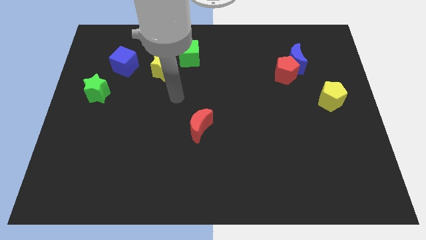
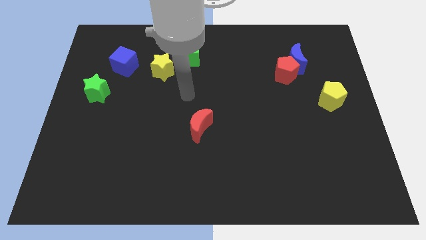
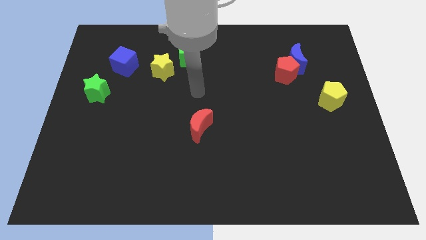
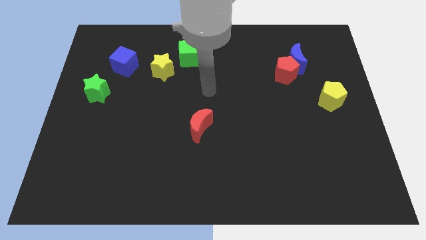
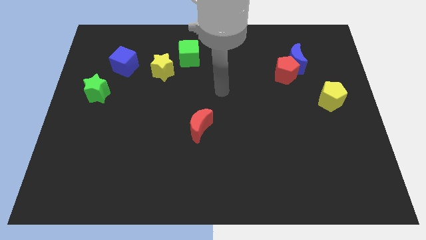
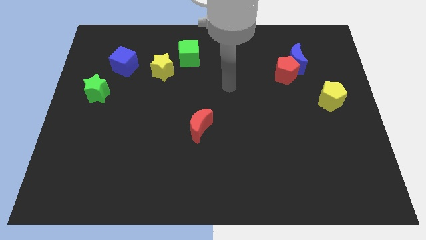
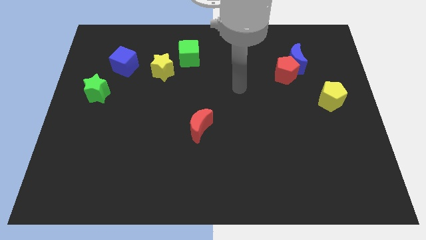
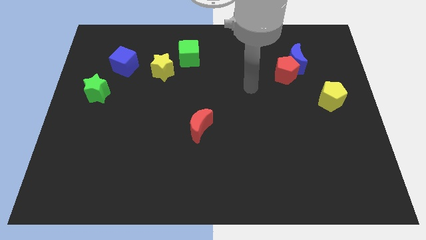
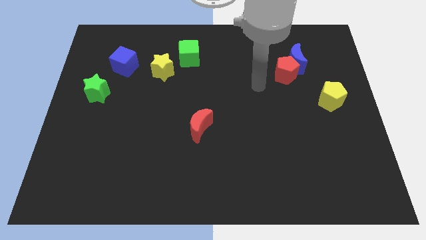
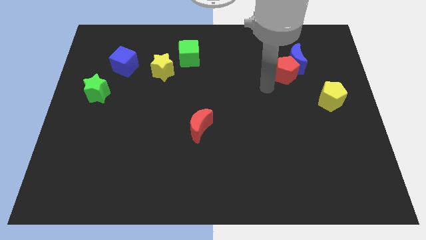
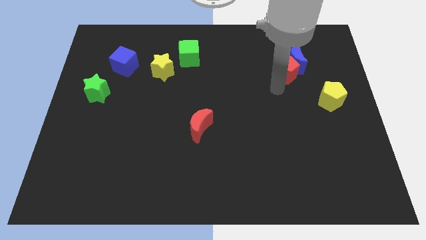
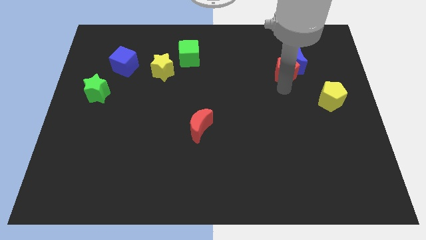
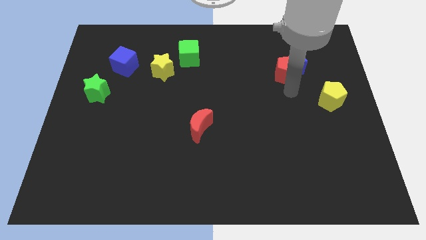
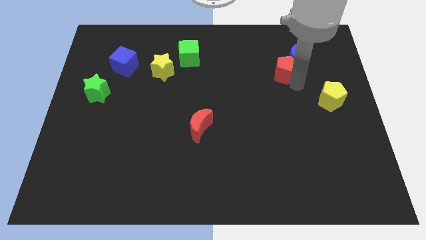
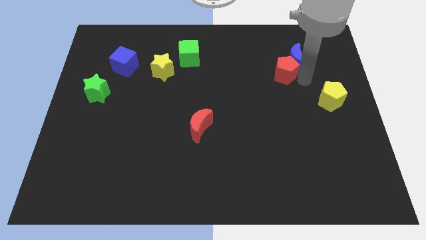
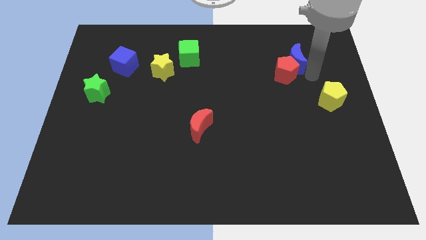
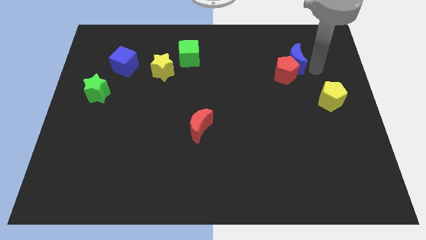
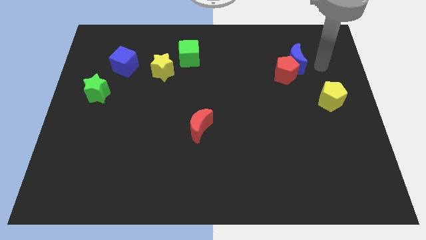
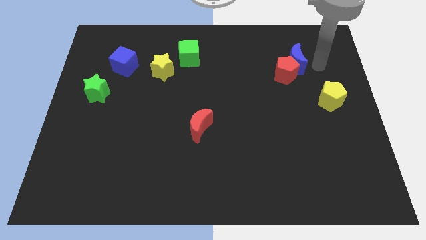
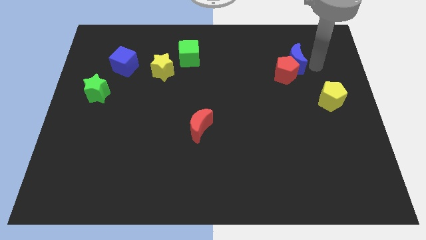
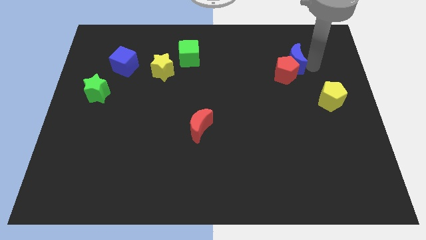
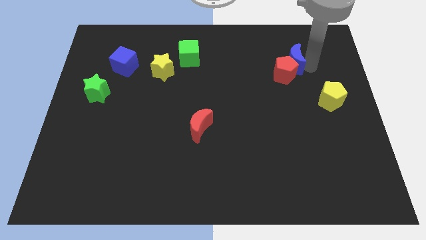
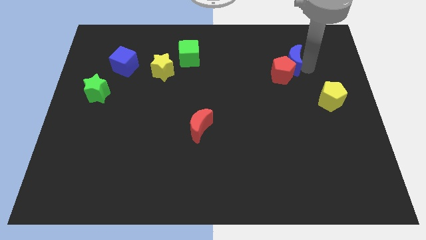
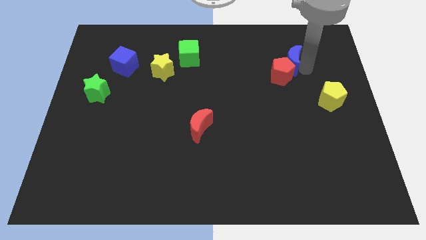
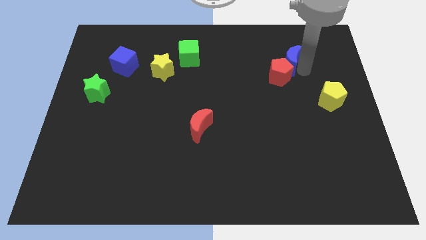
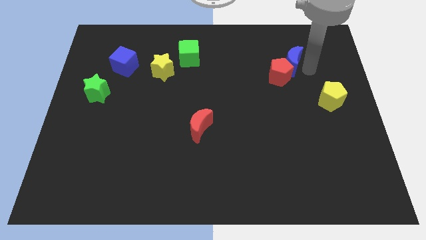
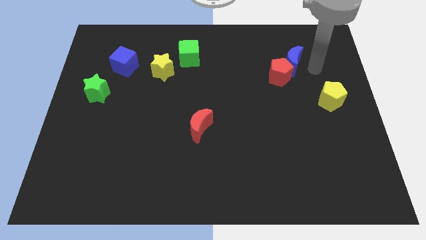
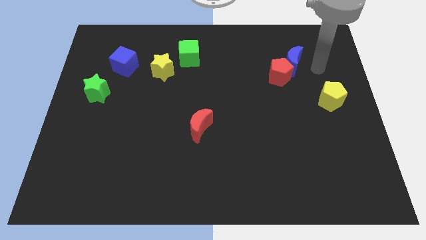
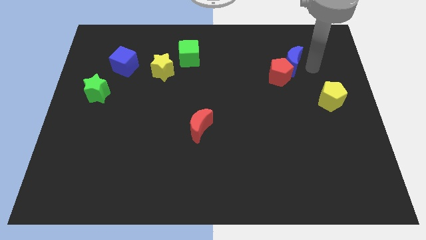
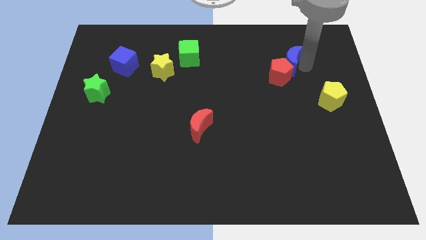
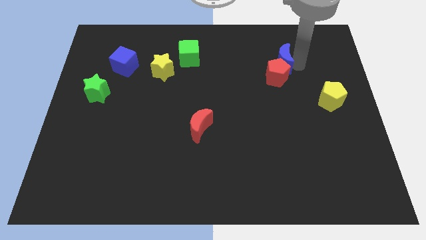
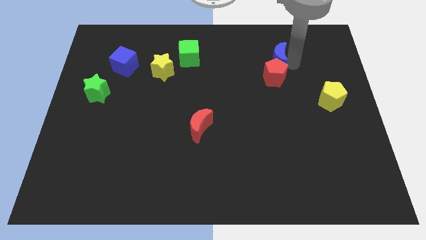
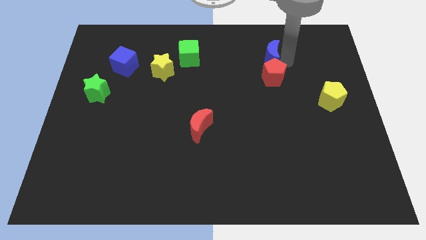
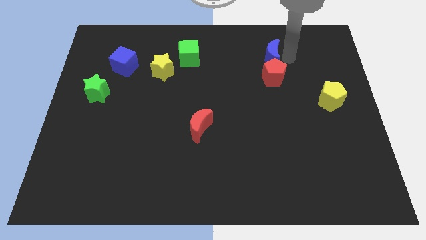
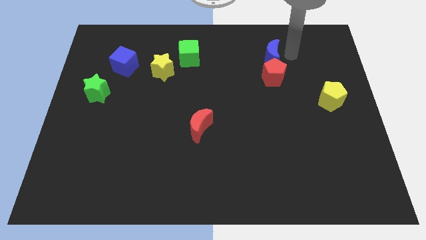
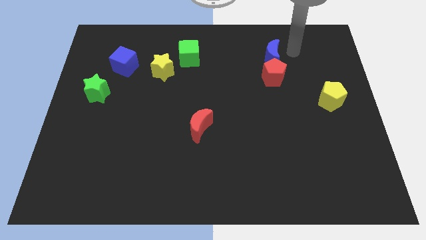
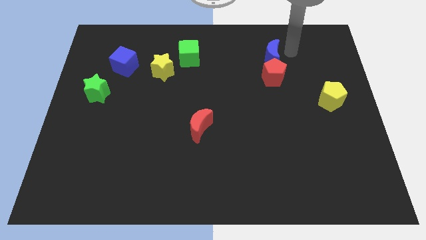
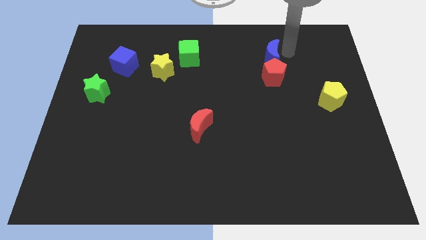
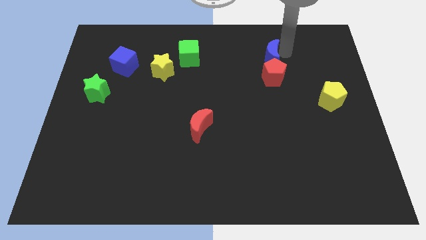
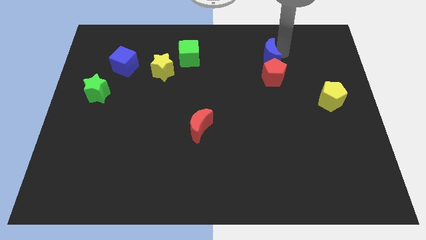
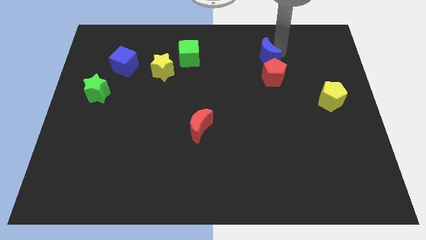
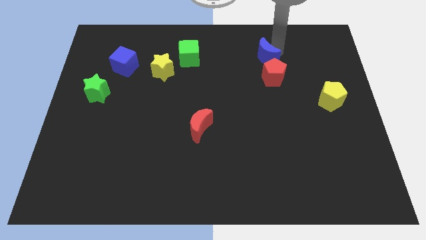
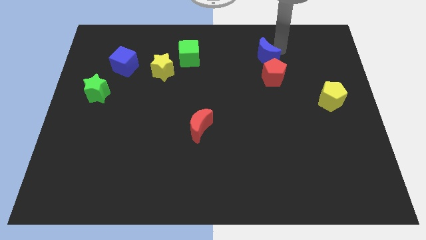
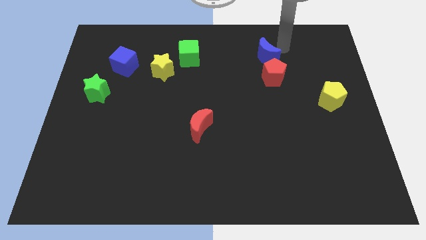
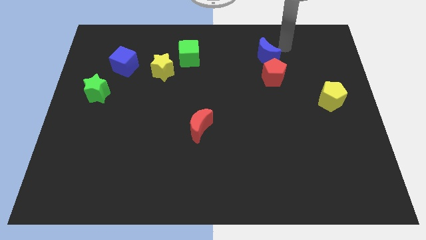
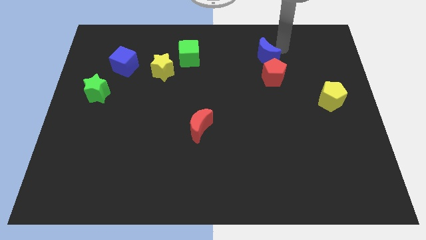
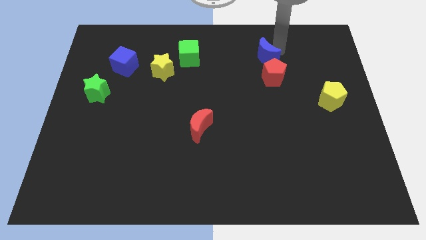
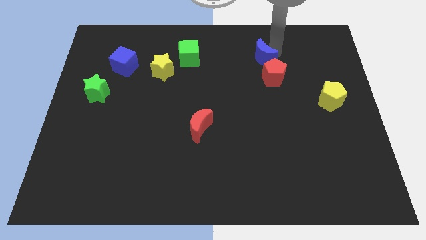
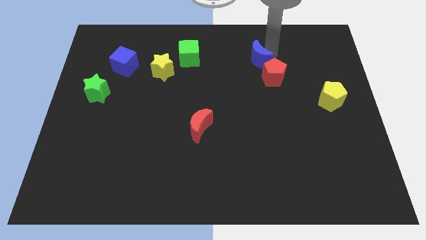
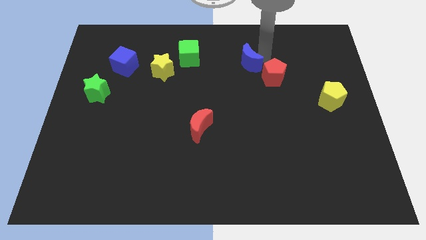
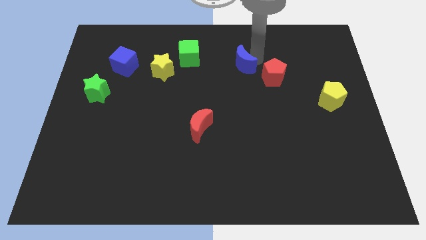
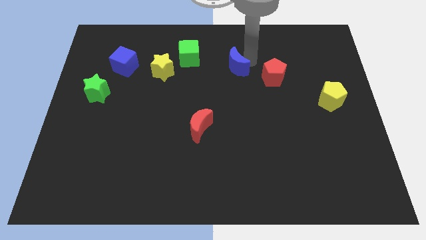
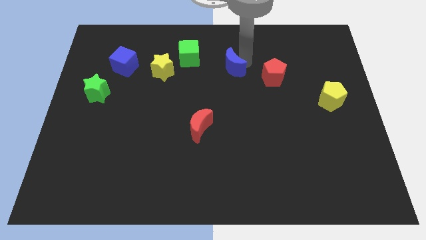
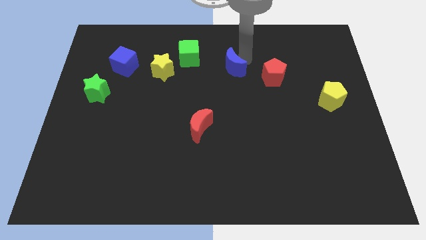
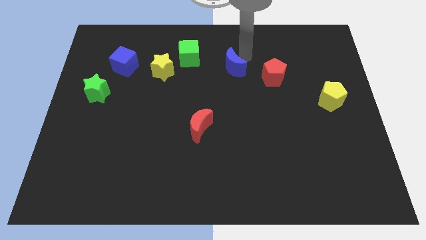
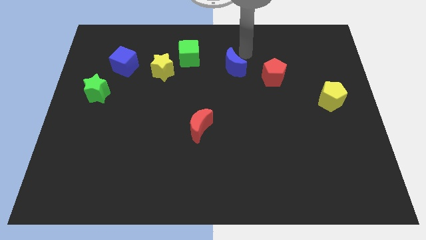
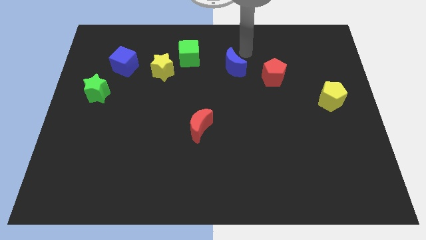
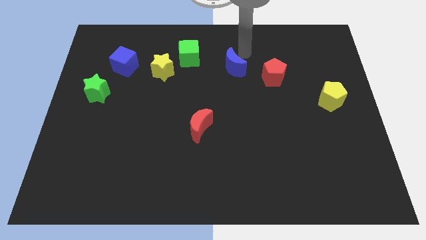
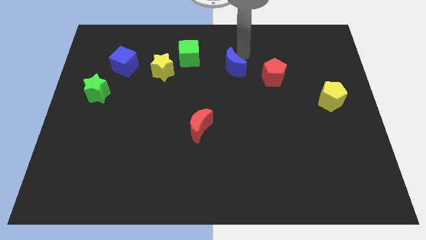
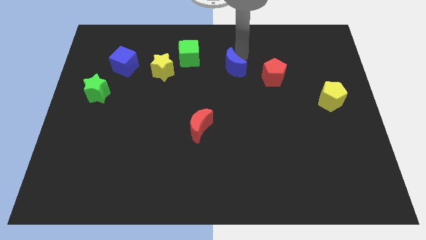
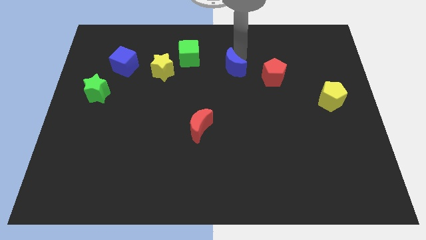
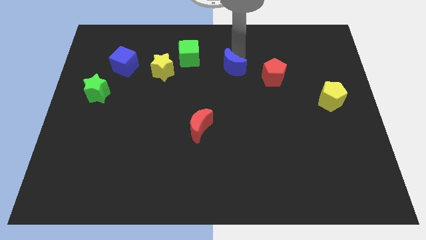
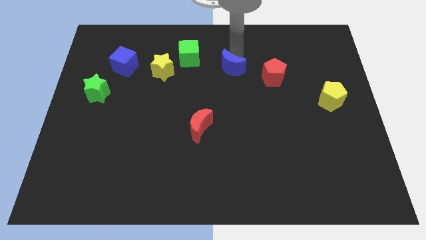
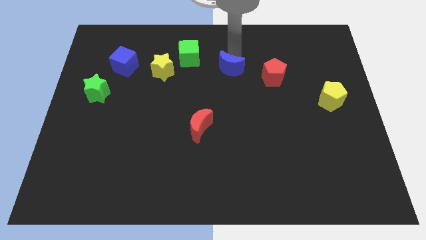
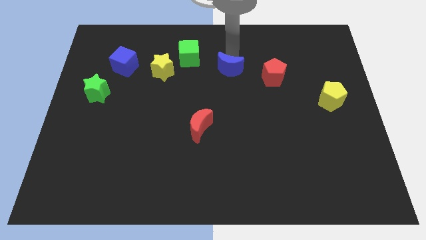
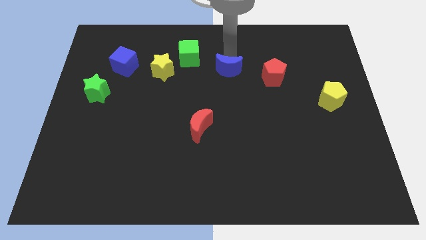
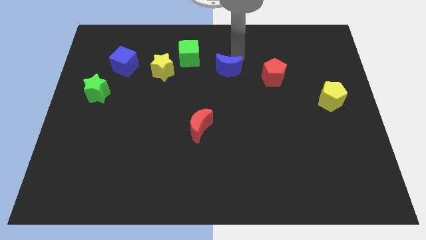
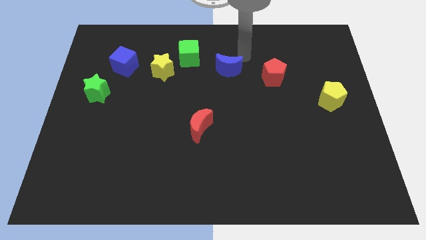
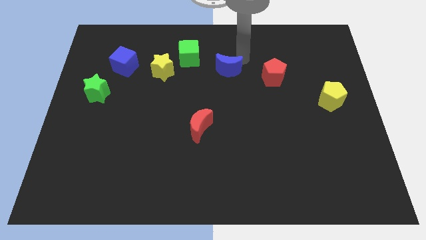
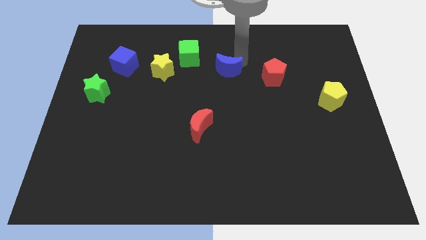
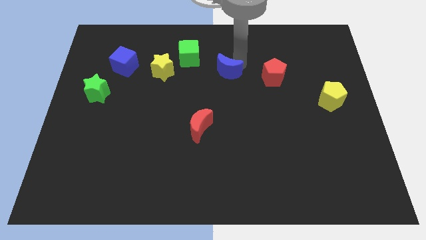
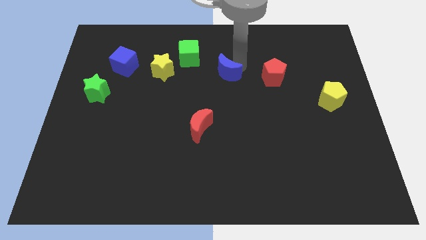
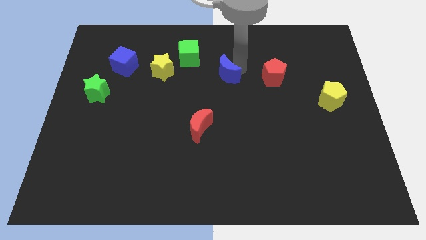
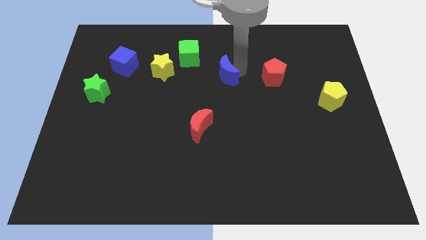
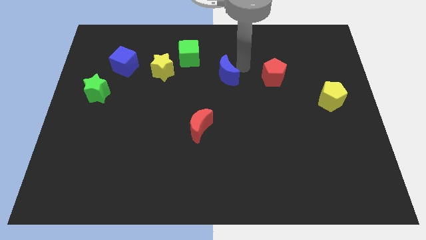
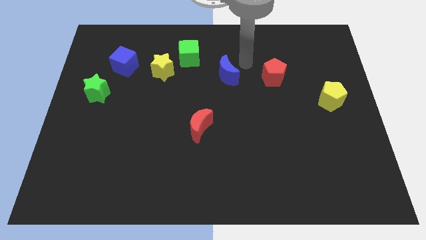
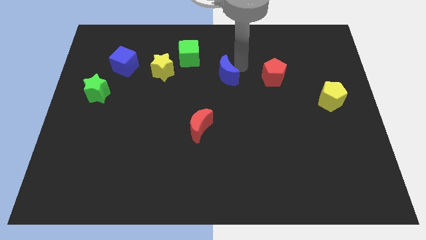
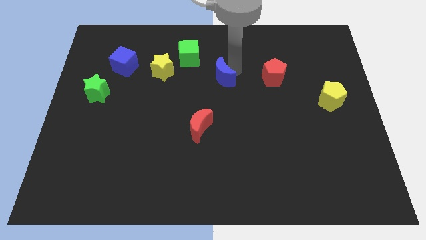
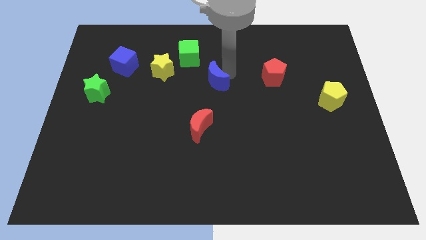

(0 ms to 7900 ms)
push the blue moon to the top of the red moon
